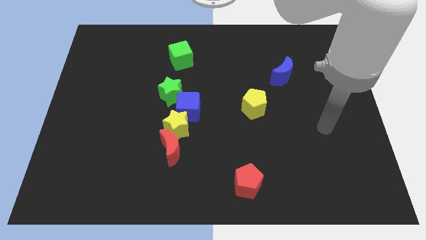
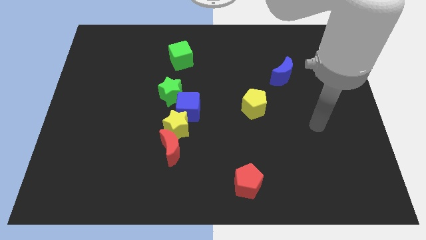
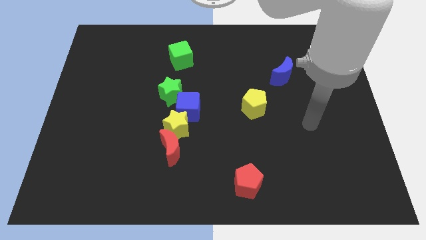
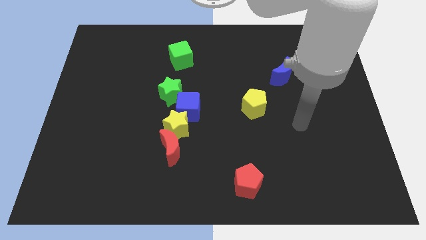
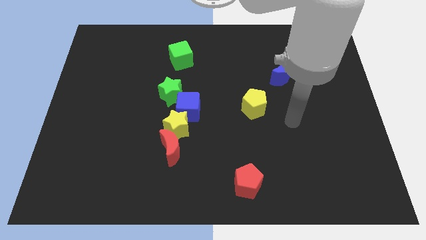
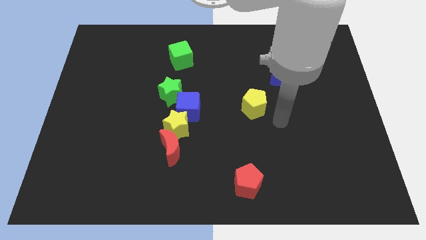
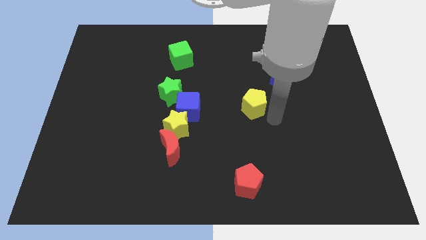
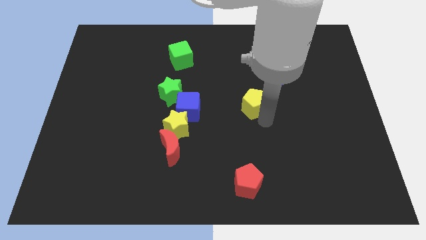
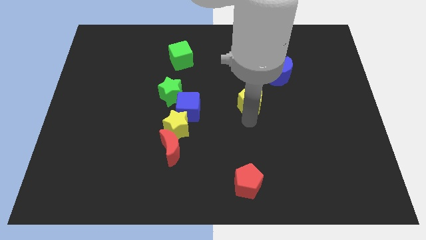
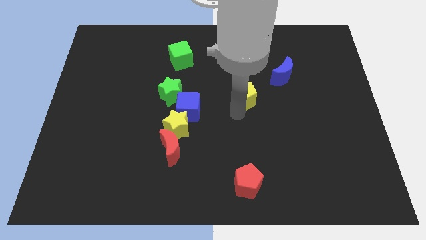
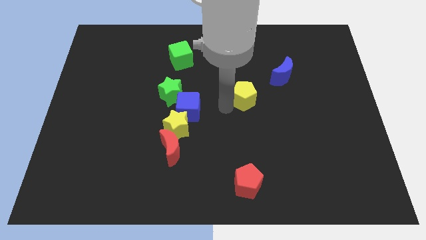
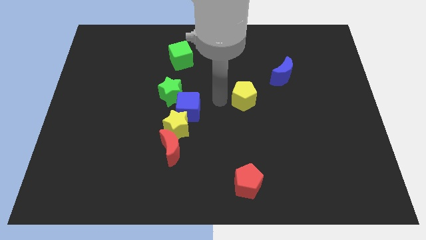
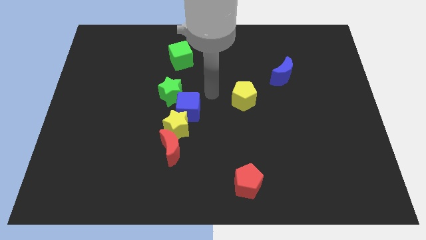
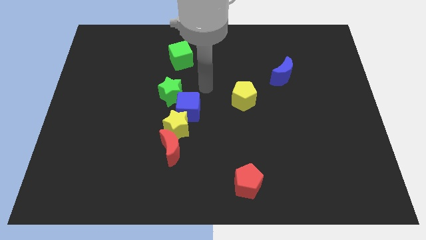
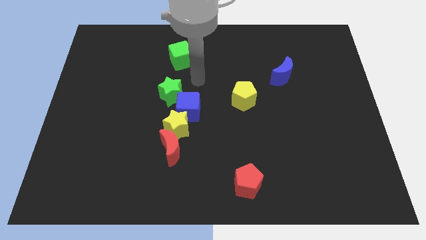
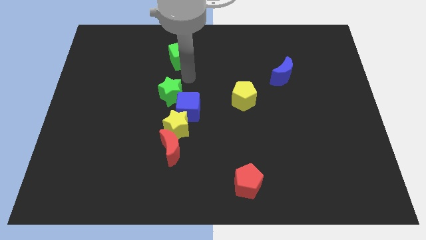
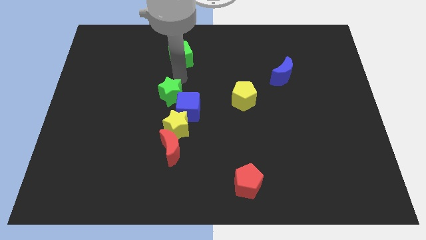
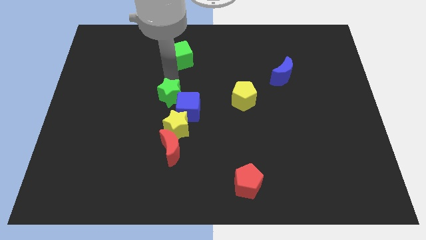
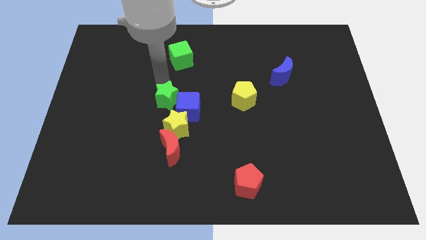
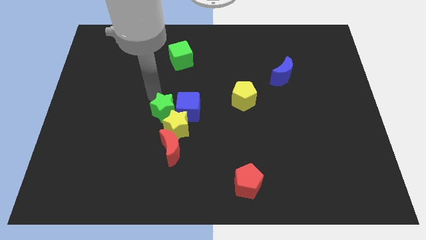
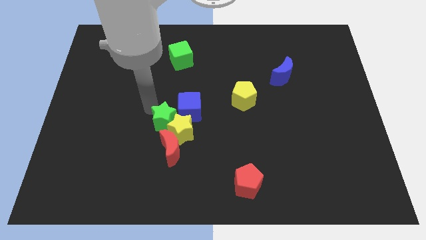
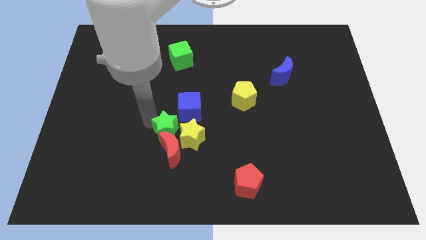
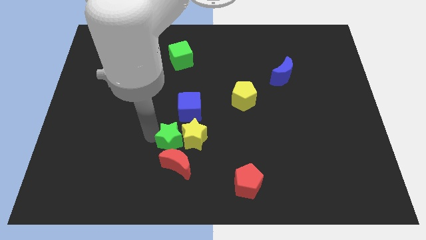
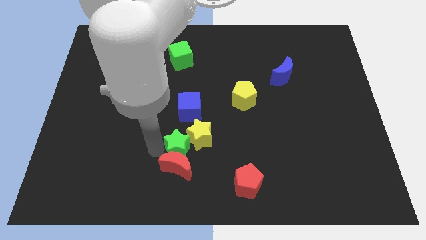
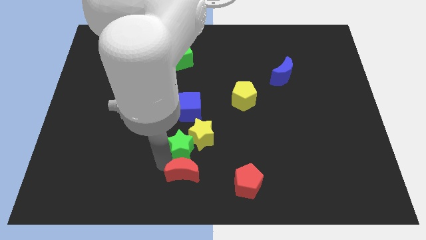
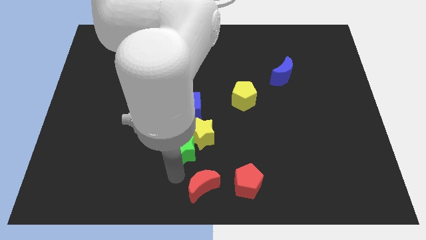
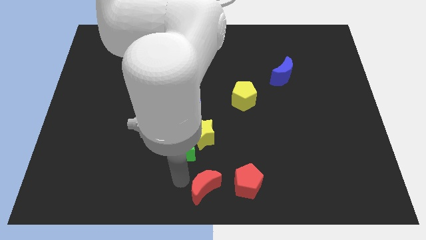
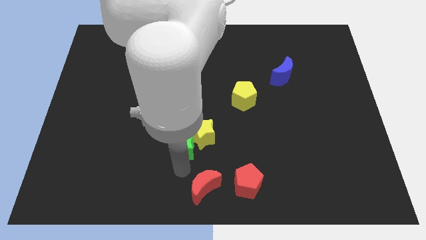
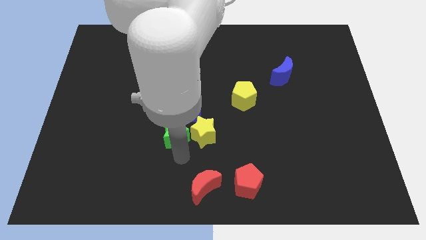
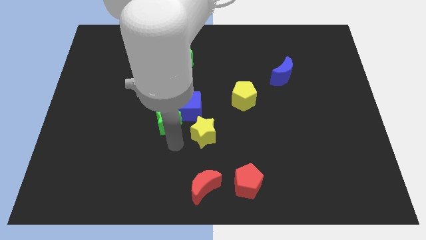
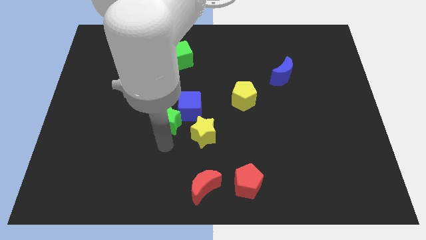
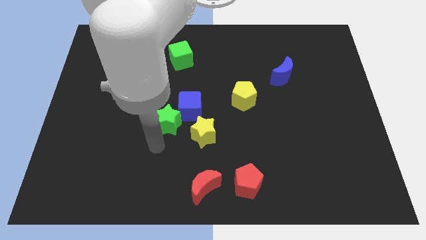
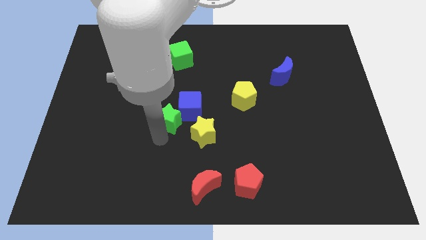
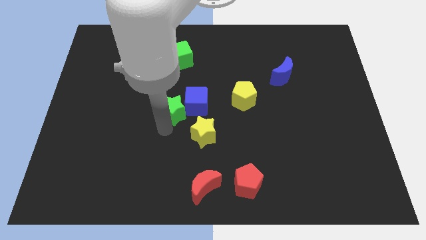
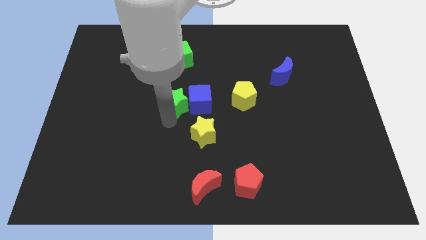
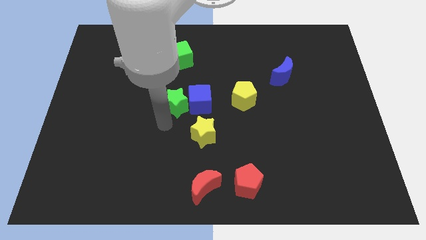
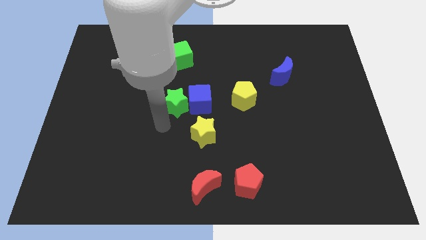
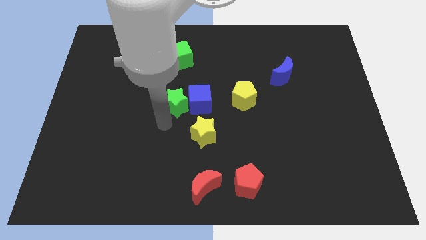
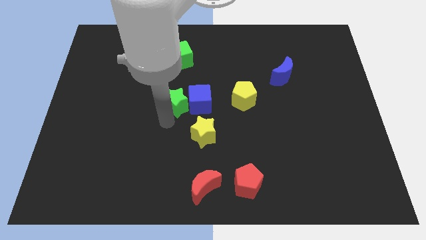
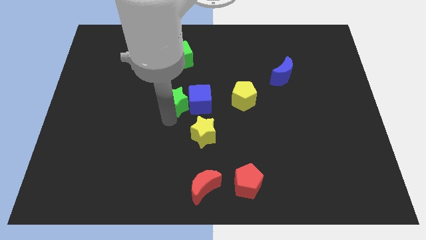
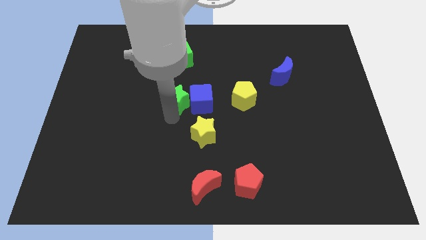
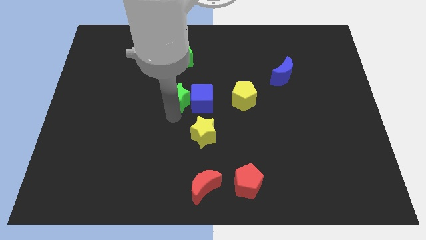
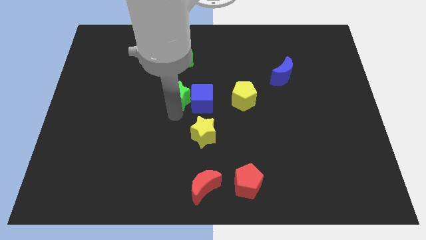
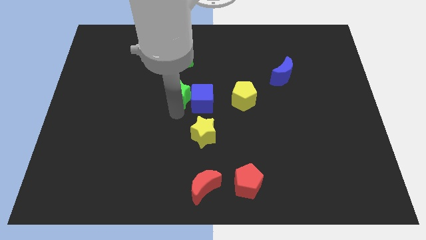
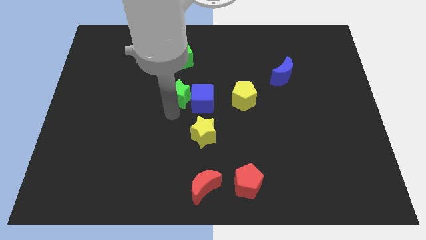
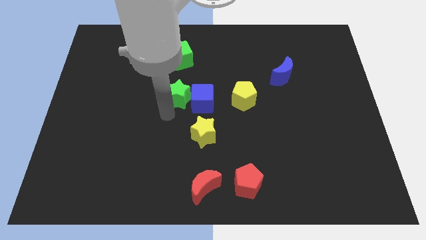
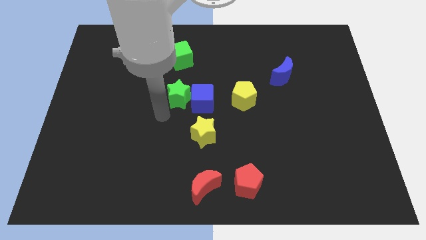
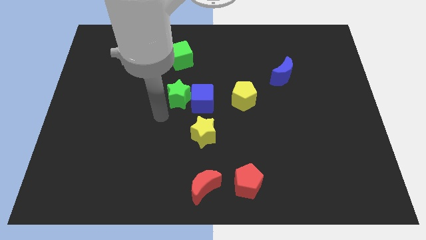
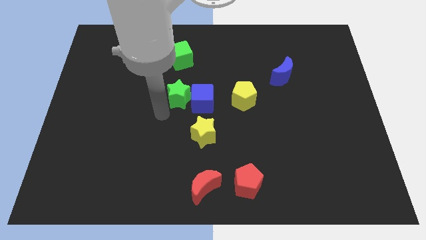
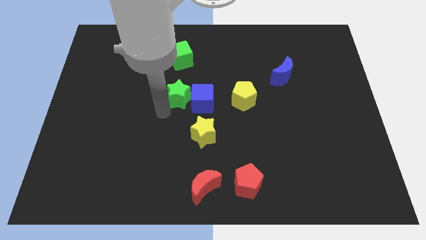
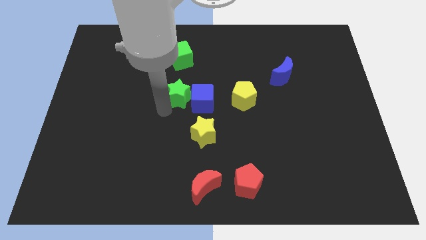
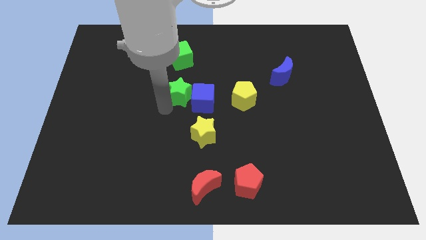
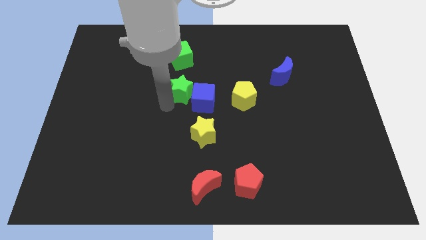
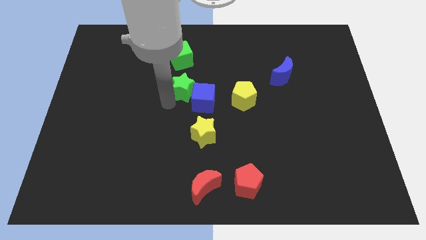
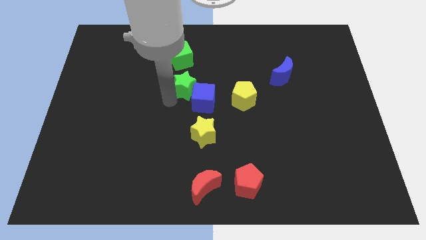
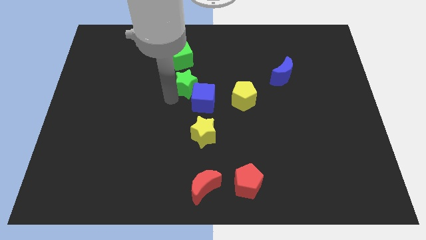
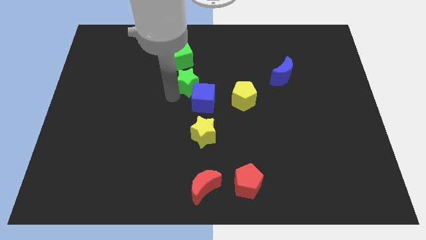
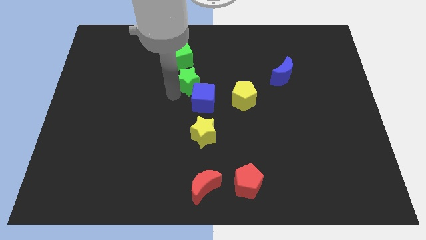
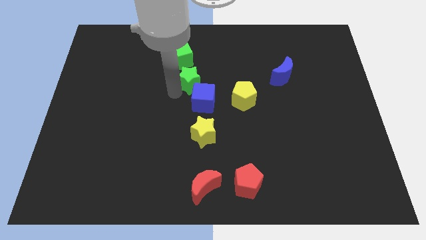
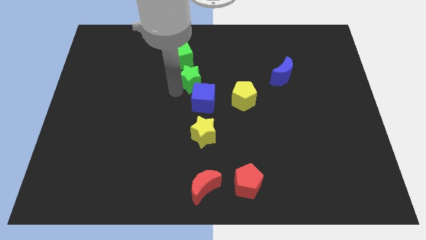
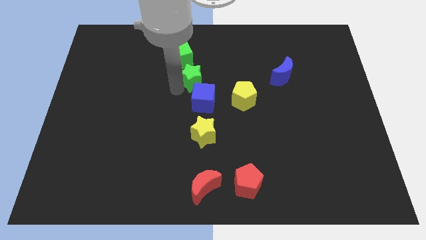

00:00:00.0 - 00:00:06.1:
push the green star a little diagonally upwards and to the right

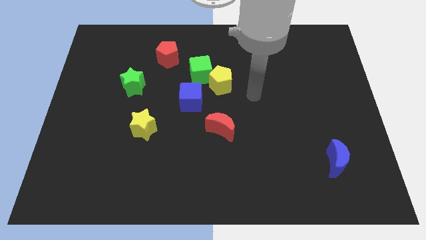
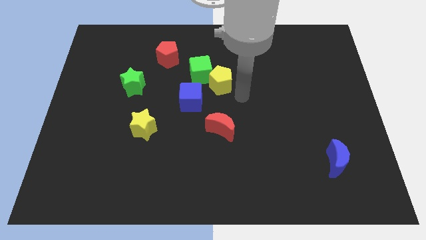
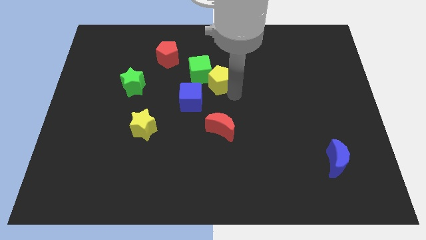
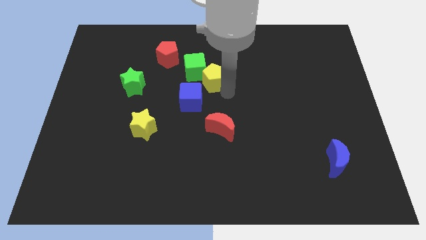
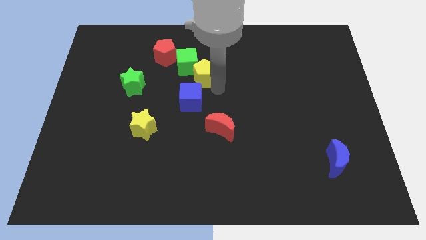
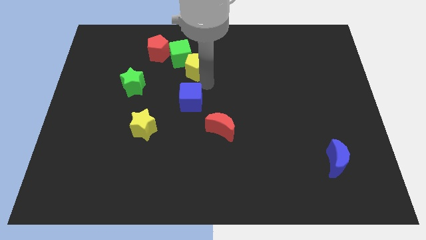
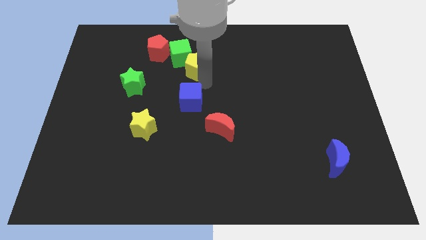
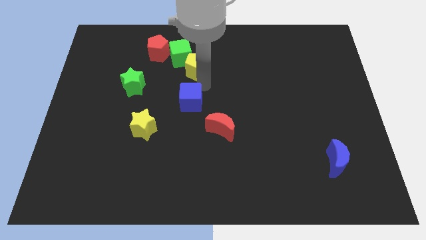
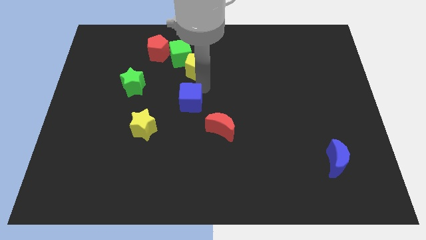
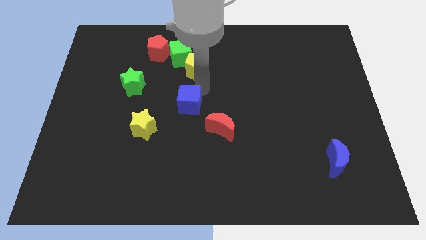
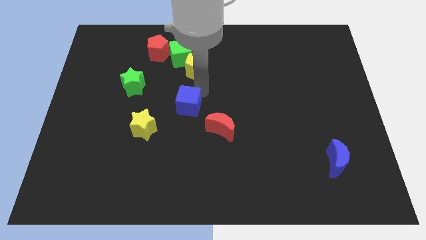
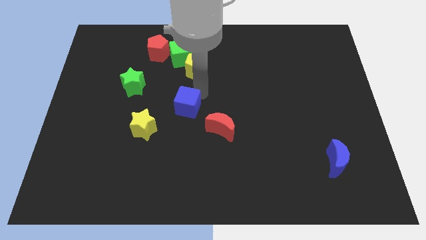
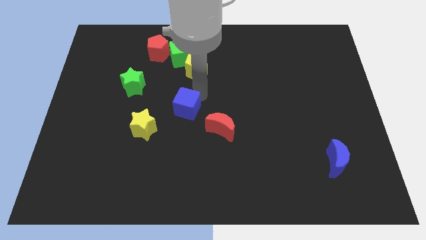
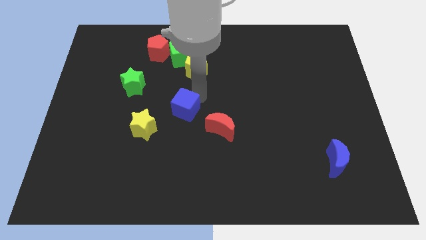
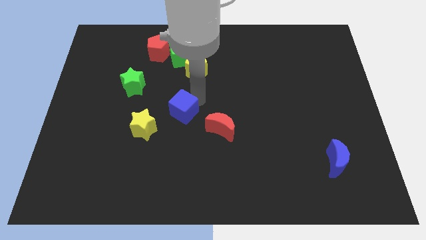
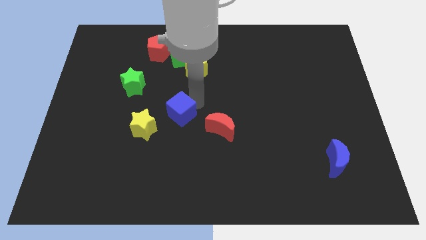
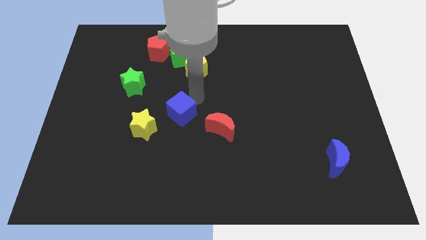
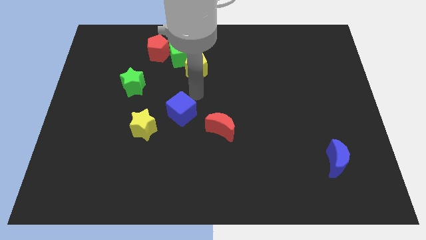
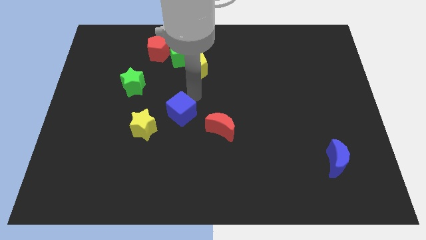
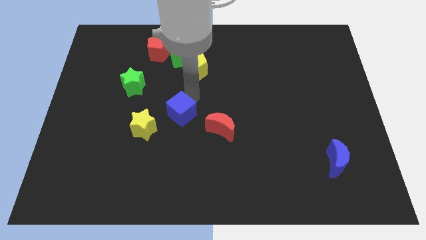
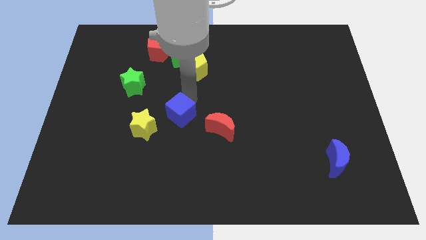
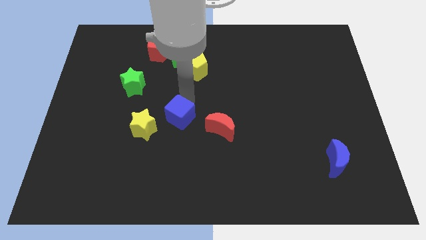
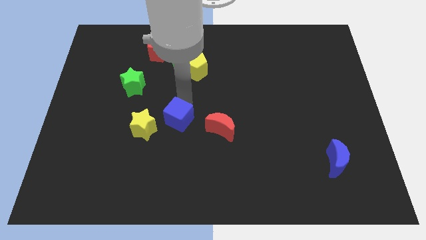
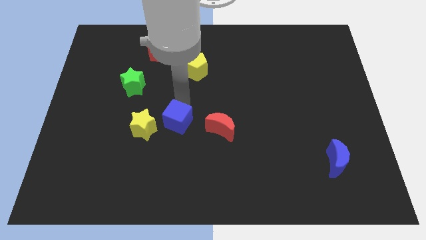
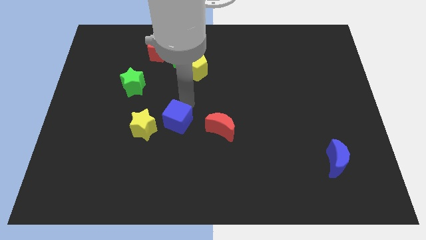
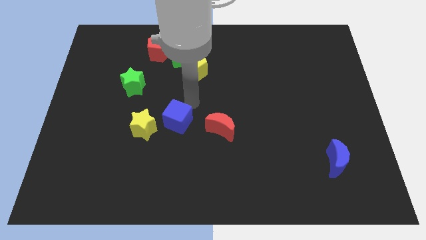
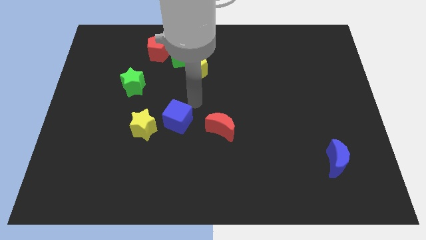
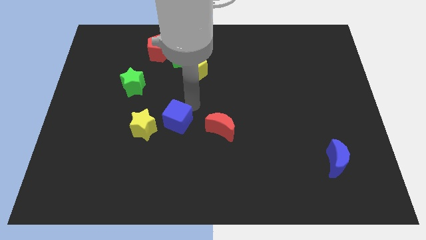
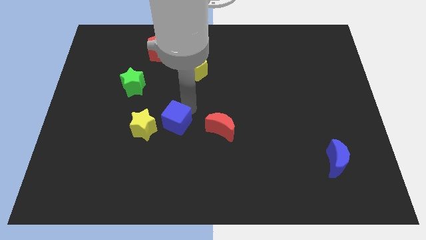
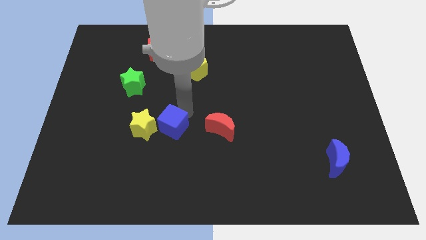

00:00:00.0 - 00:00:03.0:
push the blue cube diagonally downwards and to the left slightly
